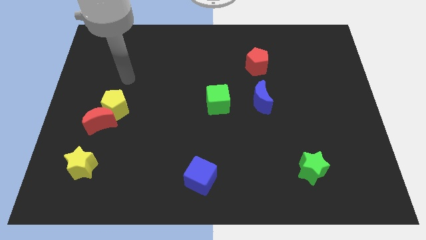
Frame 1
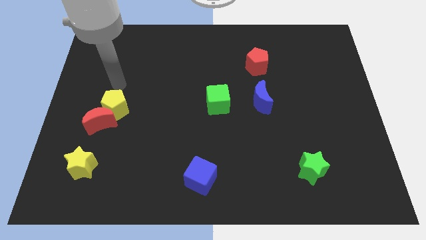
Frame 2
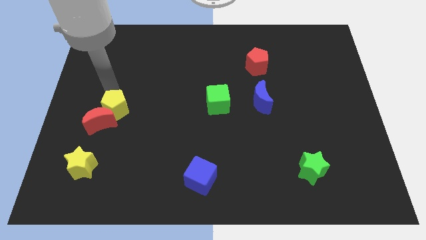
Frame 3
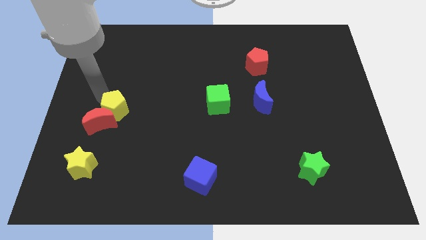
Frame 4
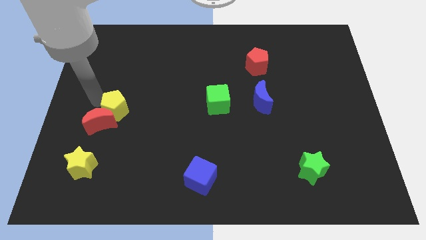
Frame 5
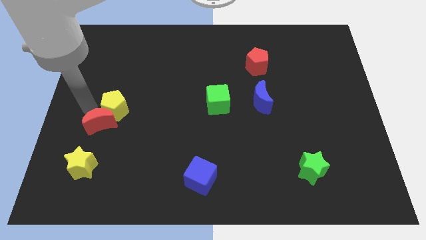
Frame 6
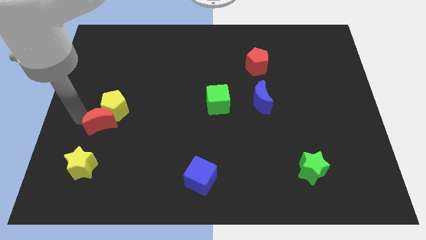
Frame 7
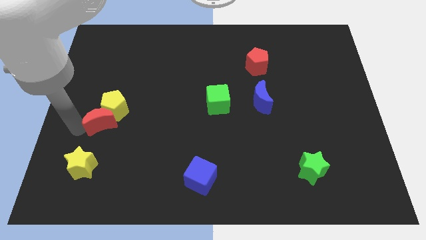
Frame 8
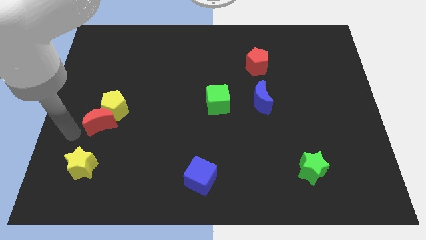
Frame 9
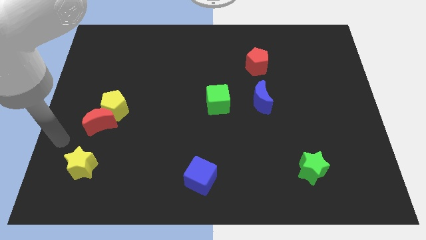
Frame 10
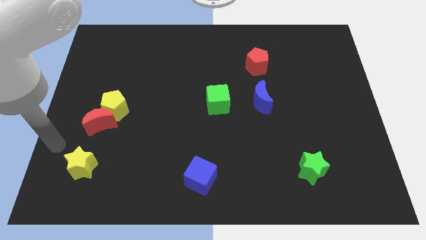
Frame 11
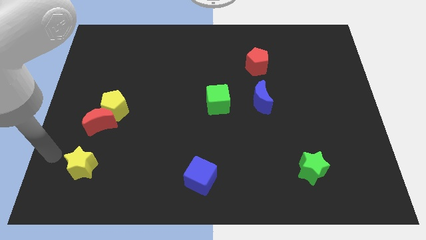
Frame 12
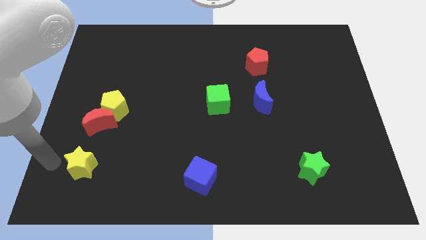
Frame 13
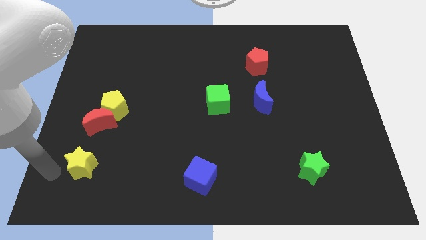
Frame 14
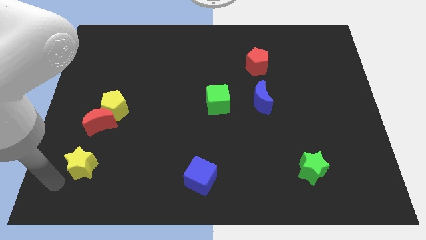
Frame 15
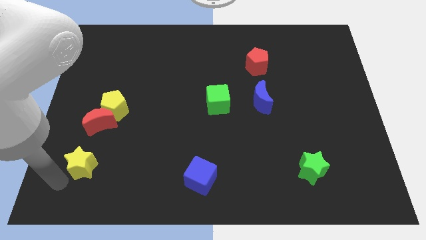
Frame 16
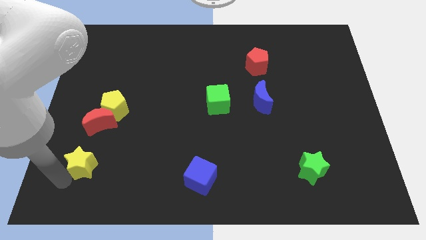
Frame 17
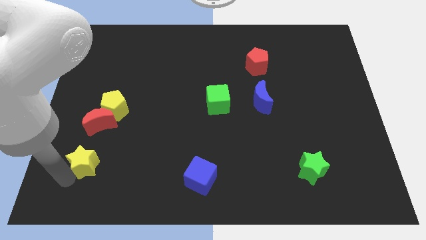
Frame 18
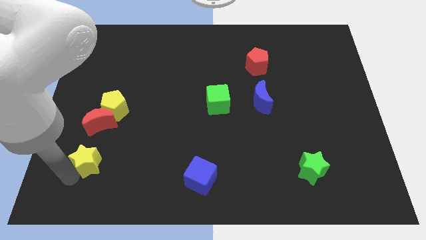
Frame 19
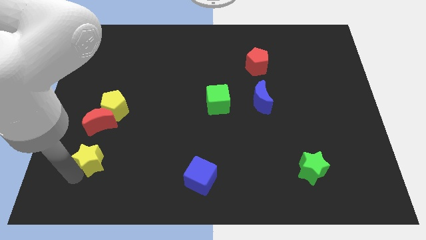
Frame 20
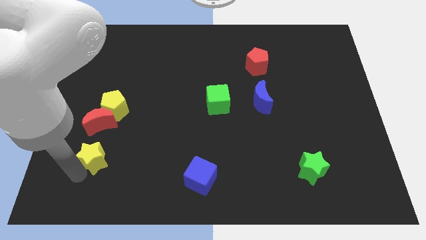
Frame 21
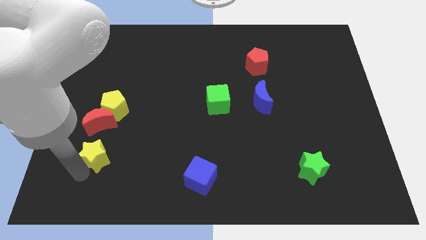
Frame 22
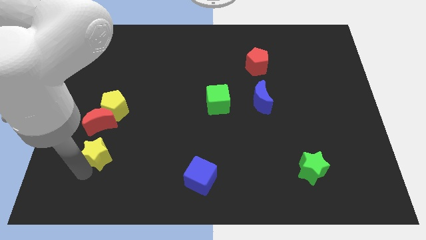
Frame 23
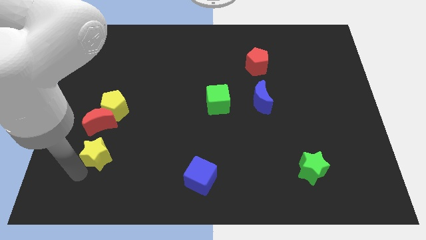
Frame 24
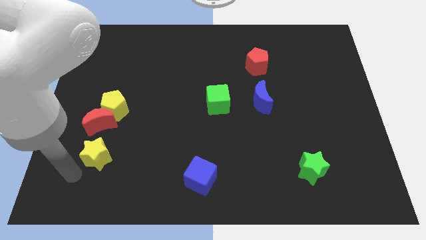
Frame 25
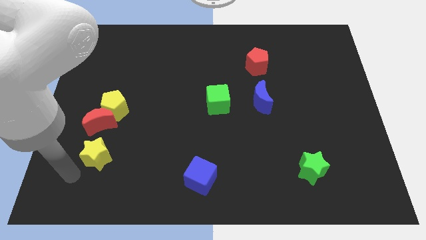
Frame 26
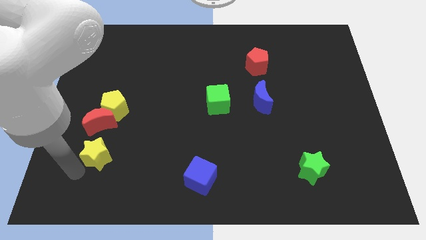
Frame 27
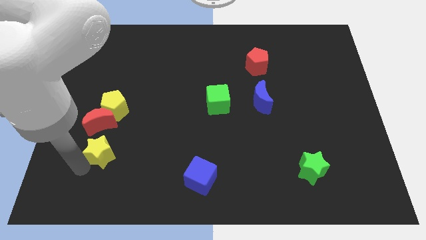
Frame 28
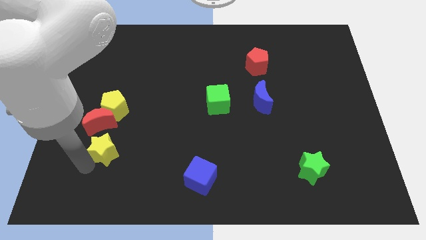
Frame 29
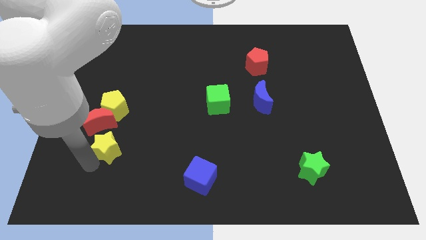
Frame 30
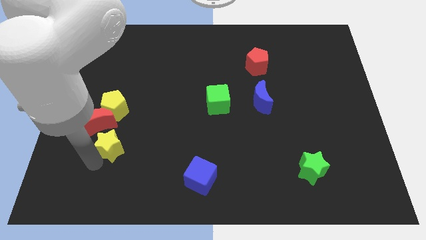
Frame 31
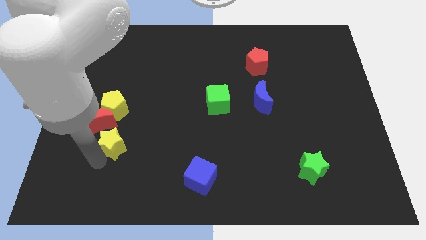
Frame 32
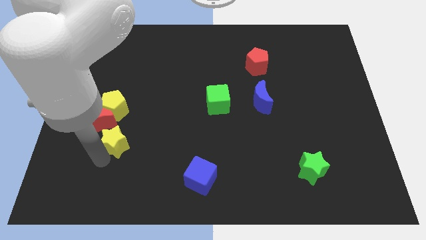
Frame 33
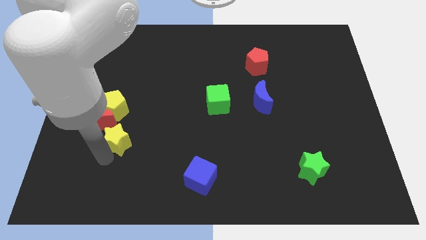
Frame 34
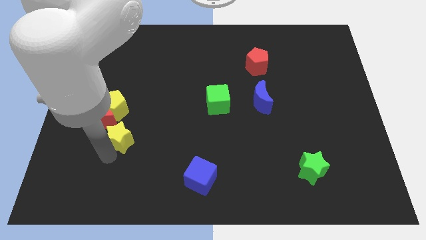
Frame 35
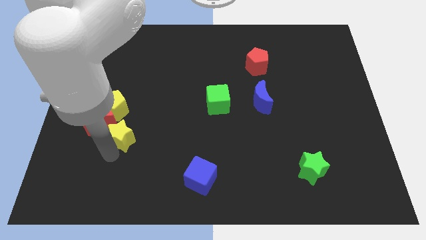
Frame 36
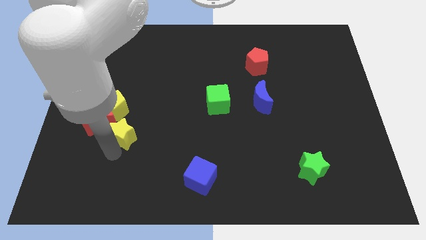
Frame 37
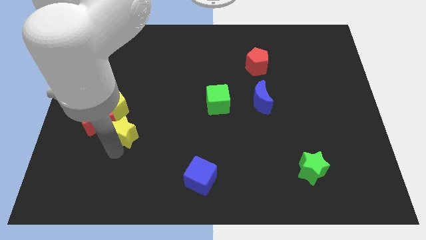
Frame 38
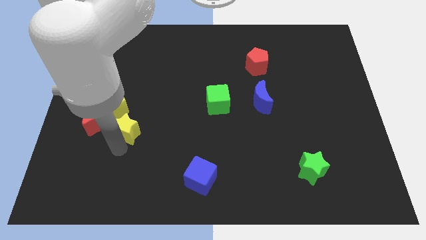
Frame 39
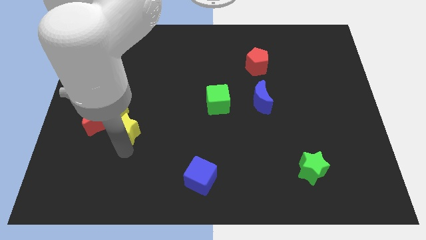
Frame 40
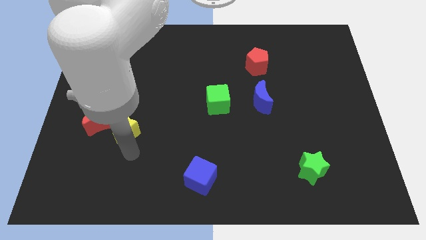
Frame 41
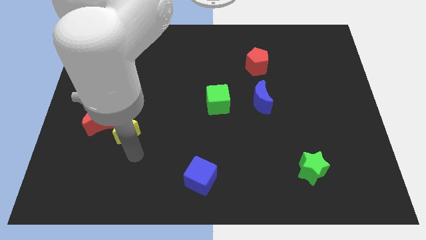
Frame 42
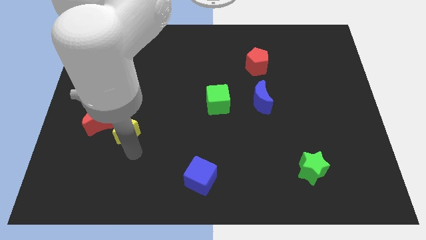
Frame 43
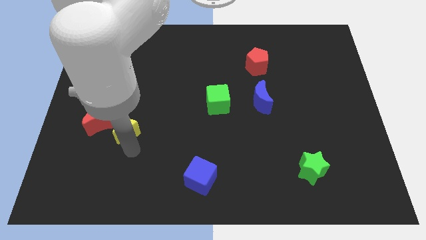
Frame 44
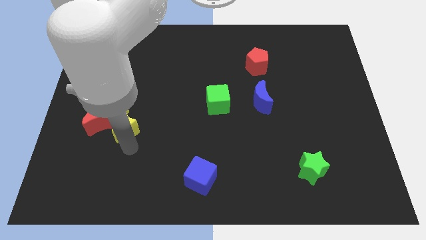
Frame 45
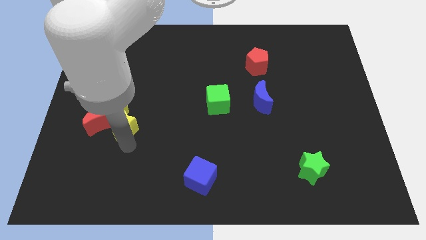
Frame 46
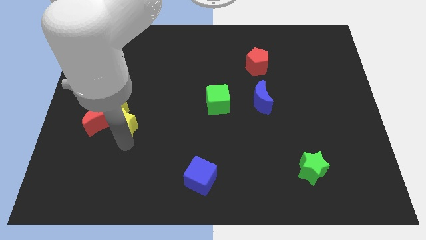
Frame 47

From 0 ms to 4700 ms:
slide the yellow star to the yellow pentagon

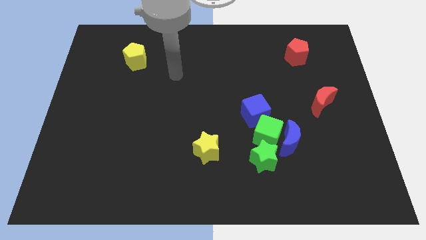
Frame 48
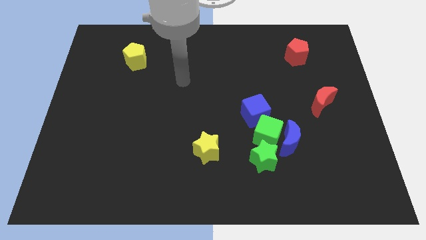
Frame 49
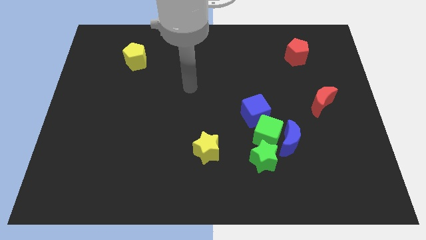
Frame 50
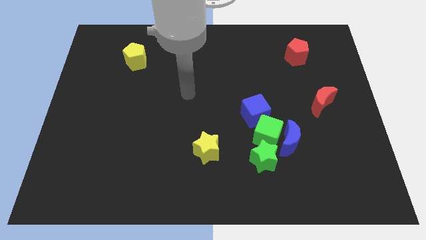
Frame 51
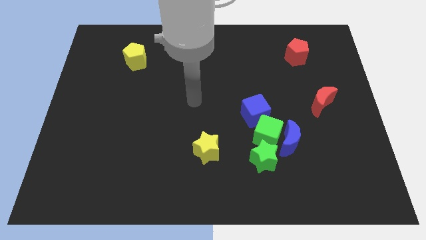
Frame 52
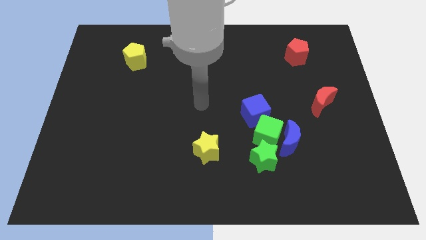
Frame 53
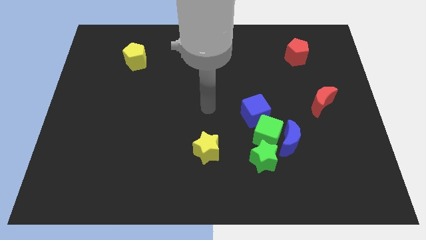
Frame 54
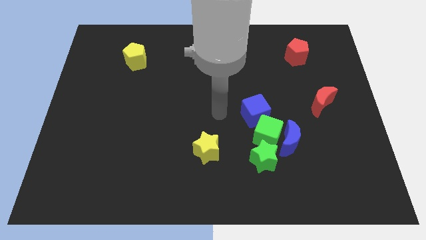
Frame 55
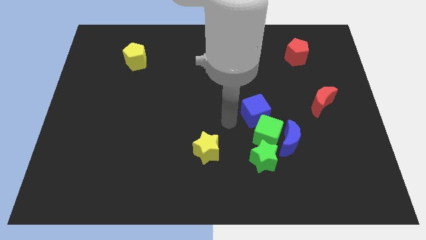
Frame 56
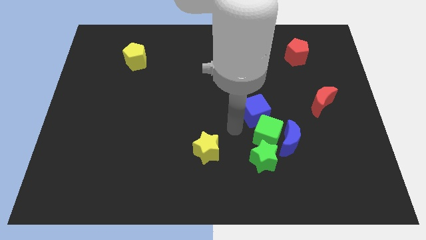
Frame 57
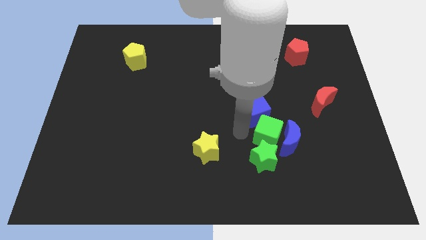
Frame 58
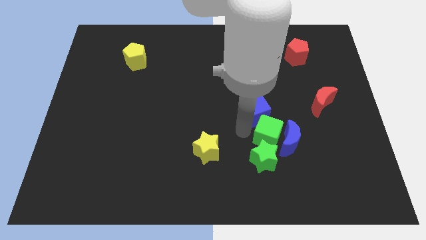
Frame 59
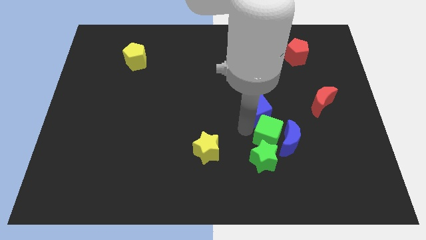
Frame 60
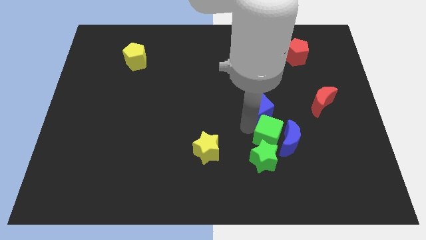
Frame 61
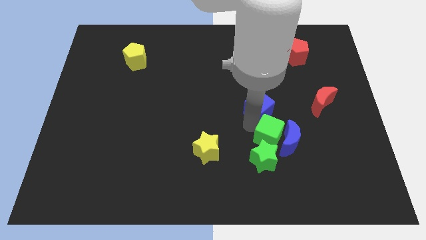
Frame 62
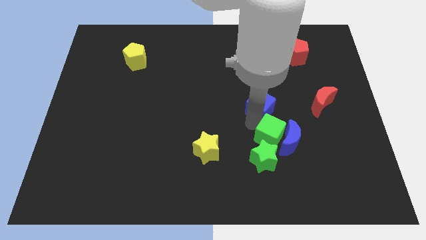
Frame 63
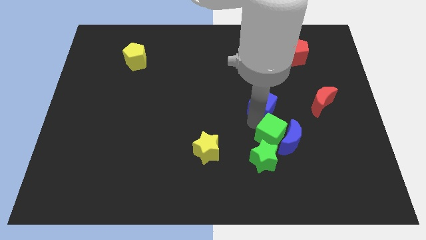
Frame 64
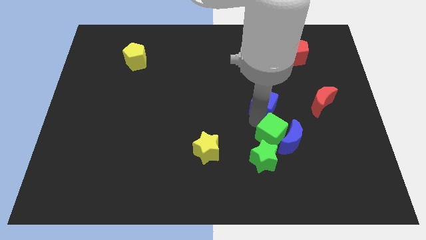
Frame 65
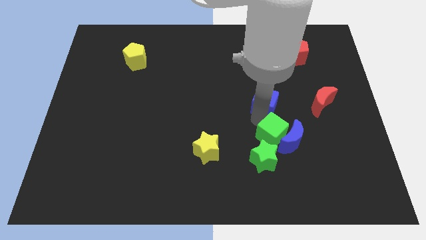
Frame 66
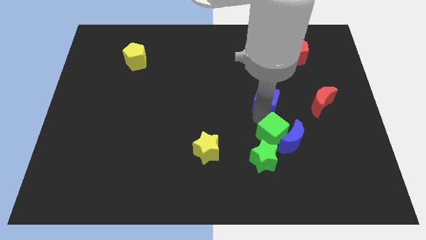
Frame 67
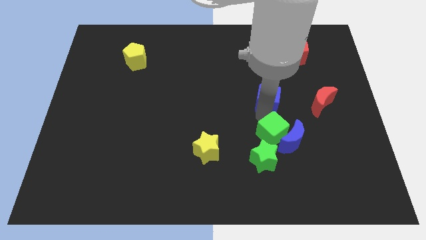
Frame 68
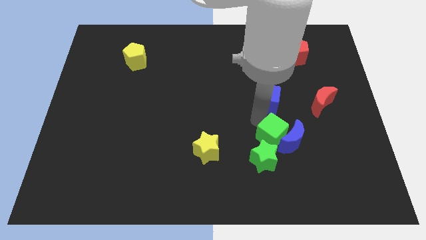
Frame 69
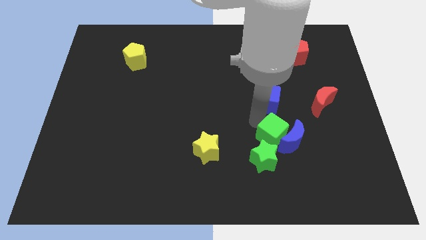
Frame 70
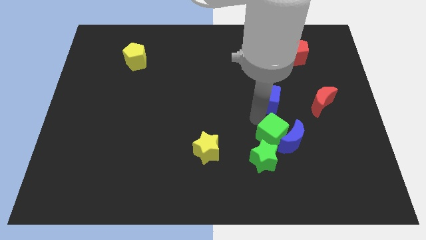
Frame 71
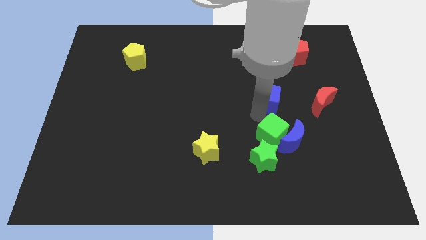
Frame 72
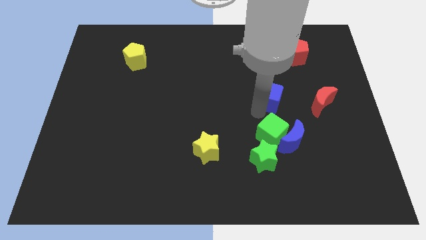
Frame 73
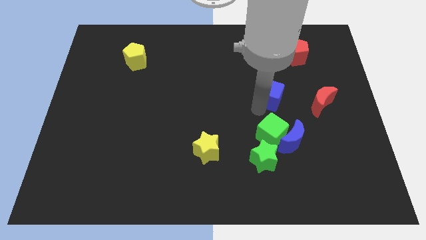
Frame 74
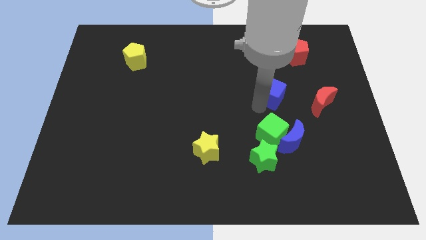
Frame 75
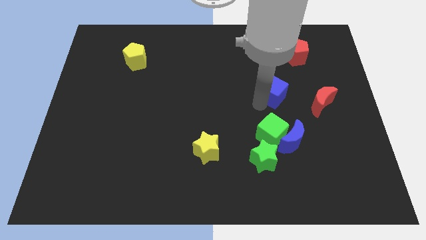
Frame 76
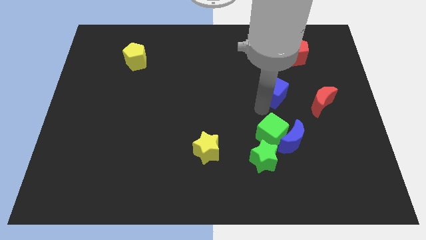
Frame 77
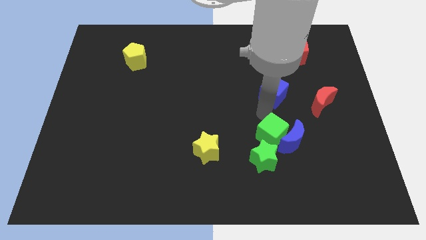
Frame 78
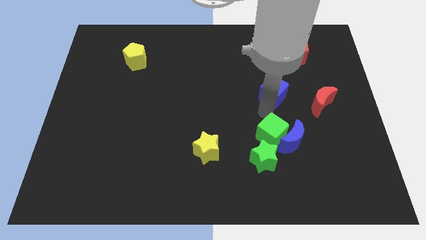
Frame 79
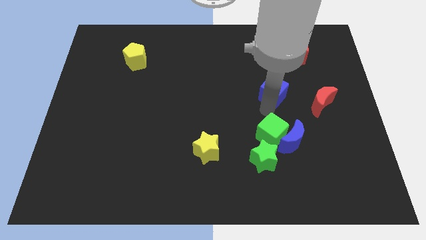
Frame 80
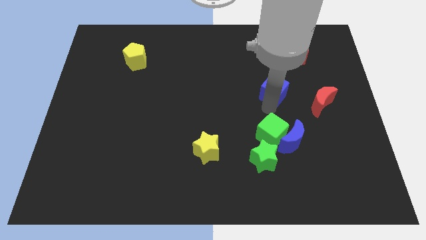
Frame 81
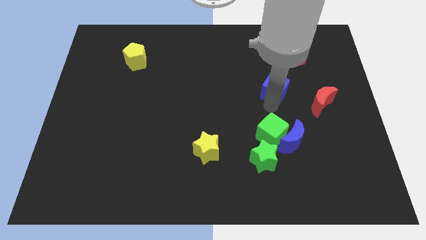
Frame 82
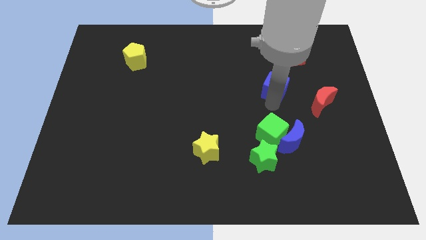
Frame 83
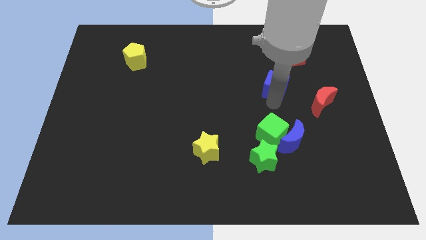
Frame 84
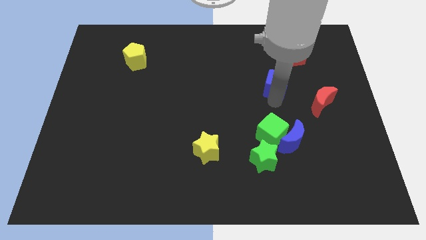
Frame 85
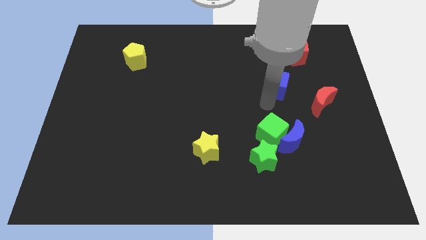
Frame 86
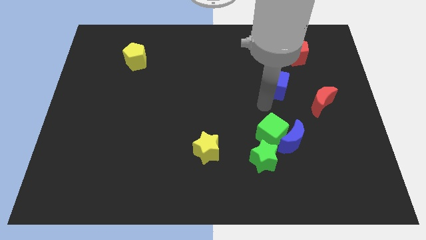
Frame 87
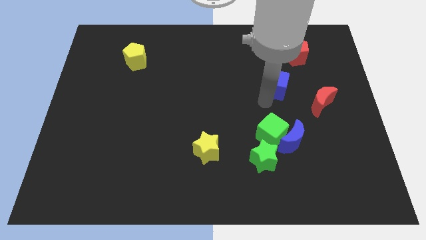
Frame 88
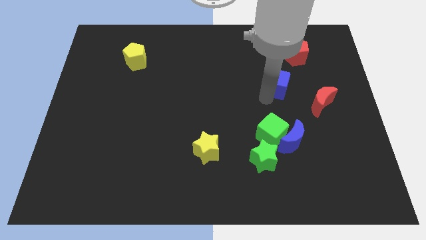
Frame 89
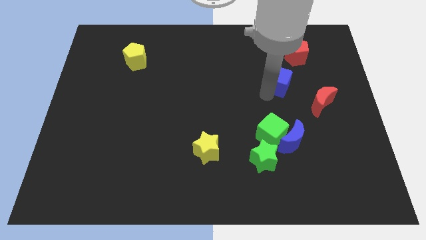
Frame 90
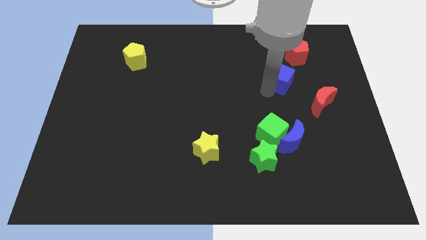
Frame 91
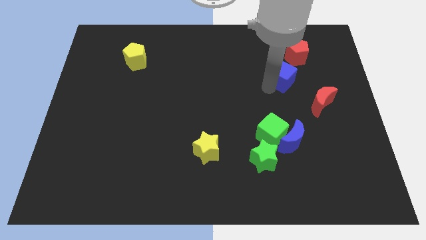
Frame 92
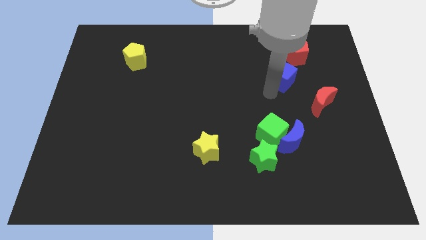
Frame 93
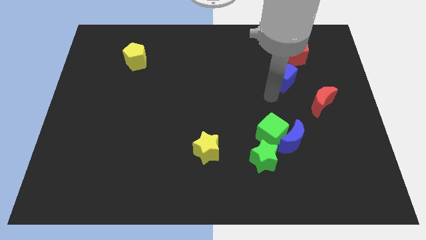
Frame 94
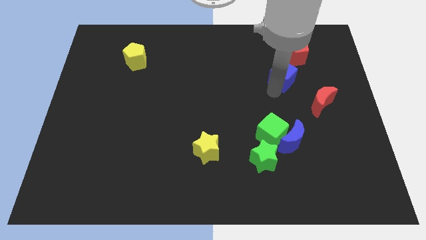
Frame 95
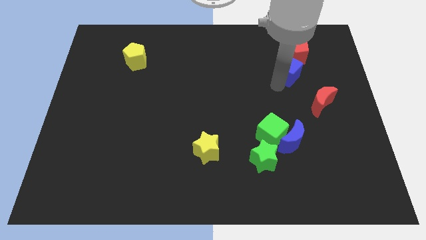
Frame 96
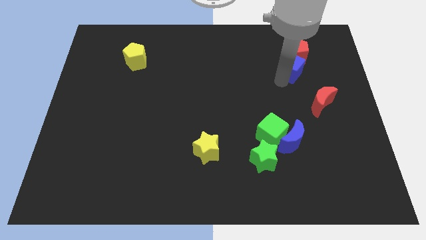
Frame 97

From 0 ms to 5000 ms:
push the blue cube to the red pentagon
